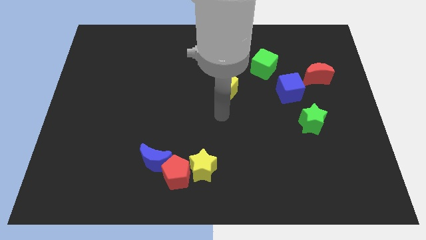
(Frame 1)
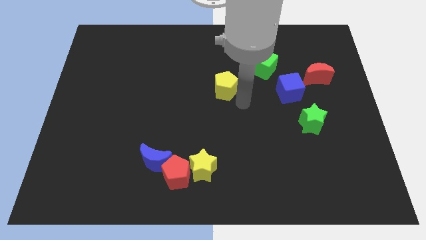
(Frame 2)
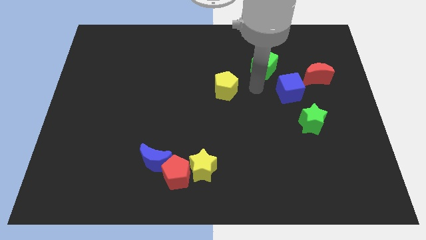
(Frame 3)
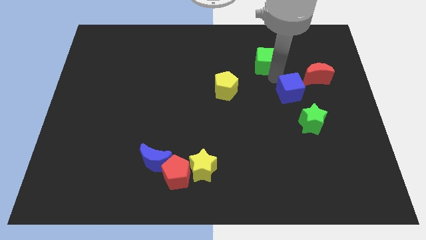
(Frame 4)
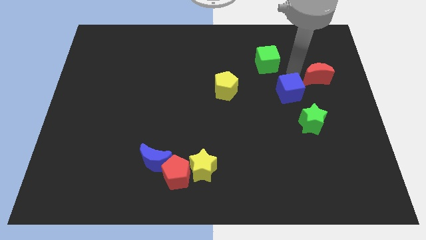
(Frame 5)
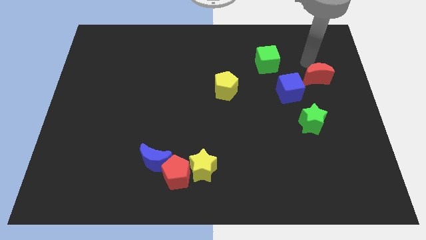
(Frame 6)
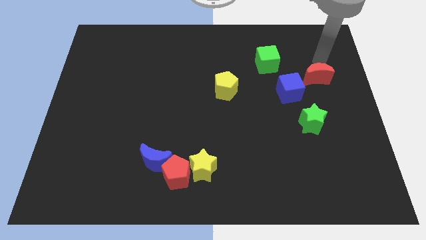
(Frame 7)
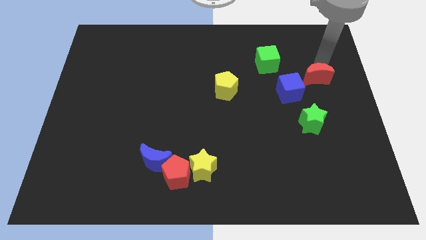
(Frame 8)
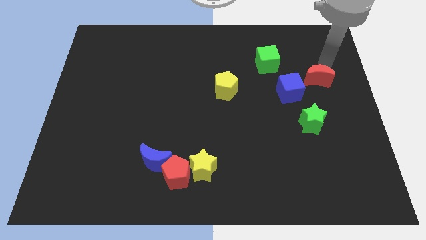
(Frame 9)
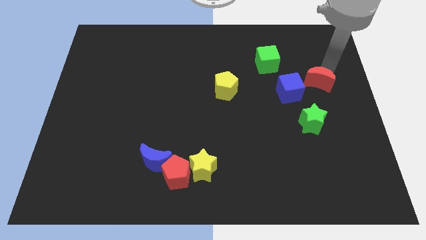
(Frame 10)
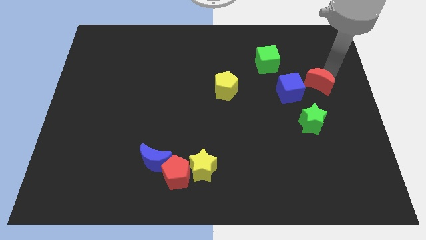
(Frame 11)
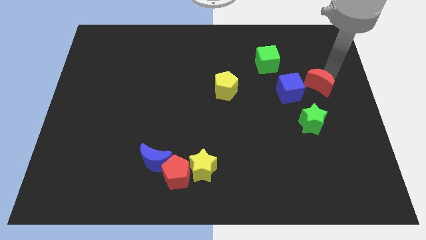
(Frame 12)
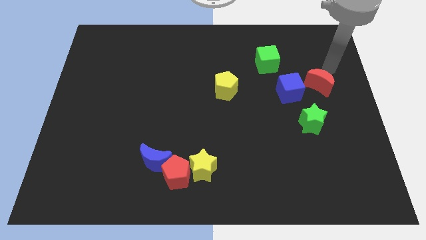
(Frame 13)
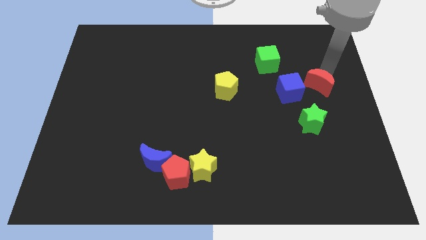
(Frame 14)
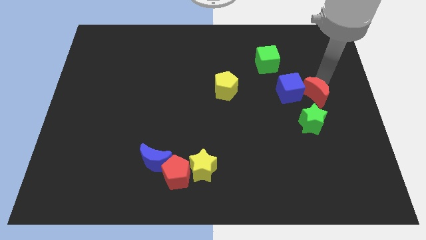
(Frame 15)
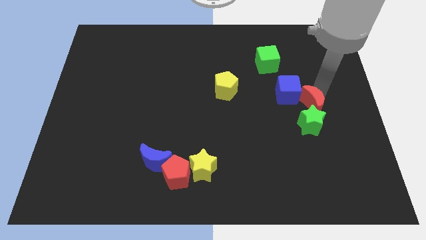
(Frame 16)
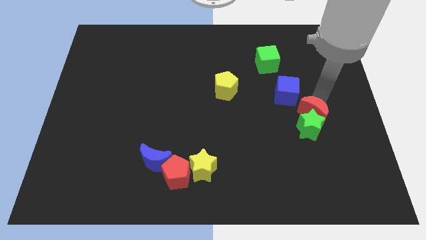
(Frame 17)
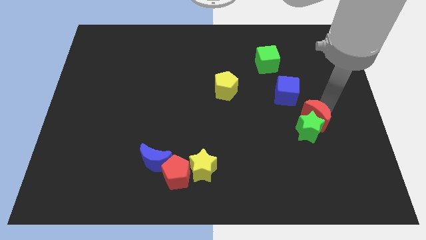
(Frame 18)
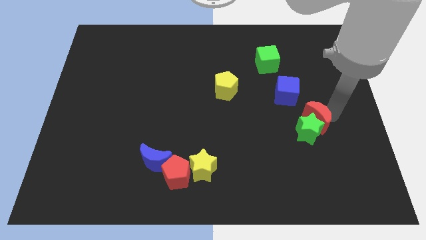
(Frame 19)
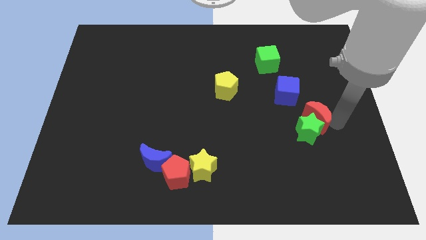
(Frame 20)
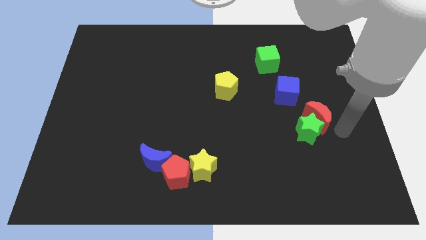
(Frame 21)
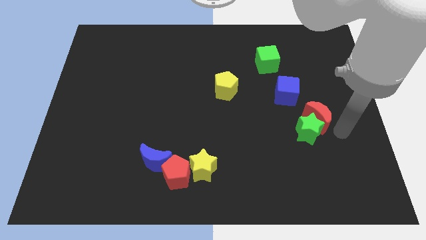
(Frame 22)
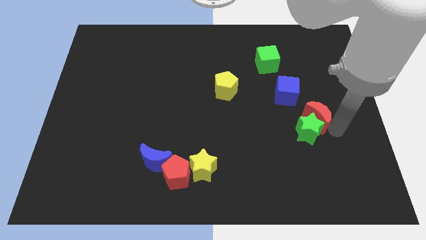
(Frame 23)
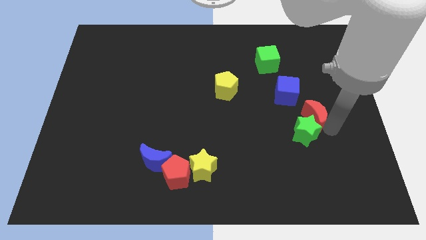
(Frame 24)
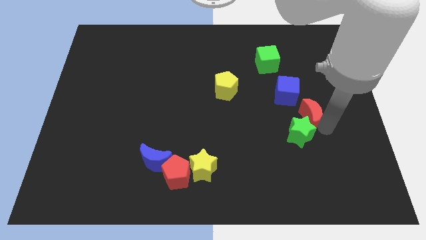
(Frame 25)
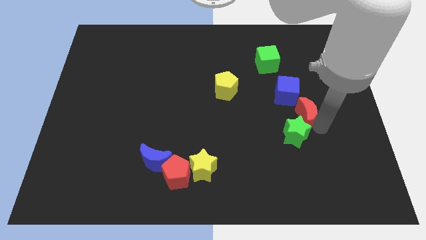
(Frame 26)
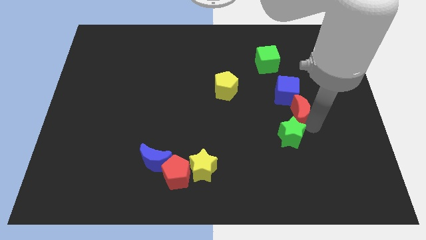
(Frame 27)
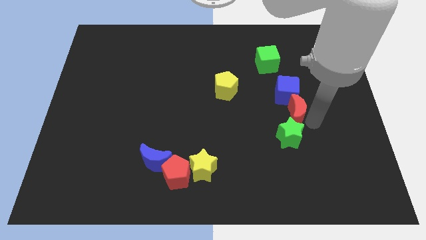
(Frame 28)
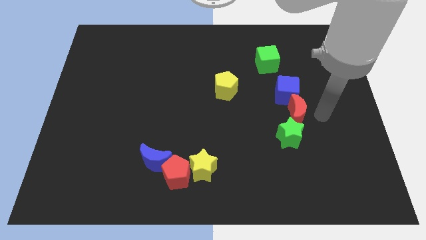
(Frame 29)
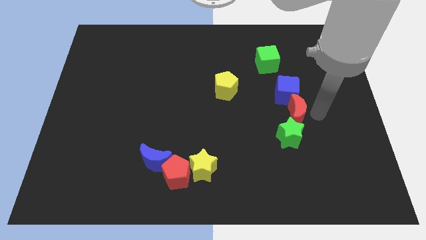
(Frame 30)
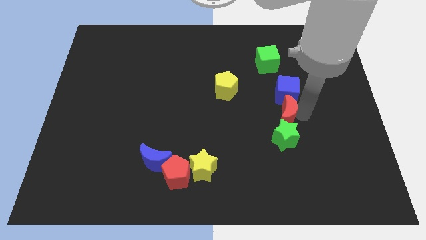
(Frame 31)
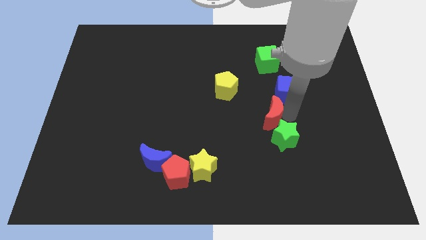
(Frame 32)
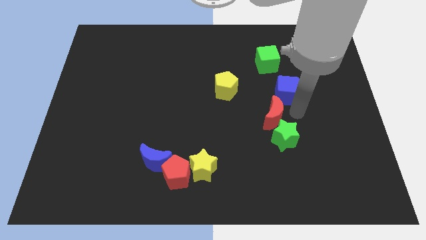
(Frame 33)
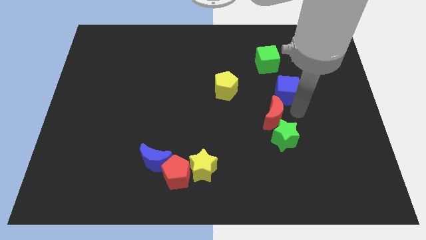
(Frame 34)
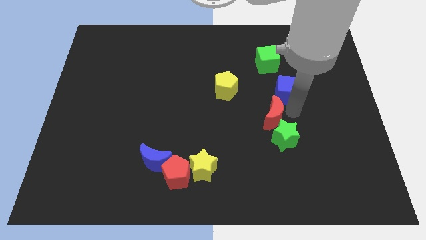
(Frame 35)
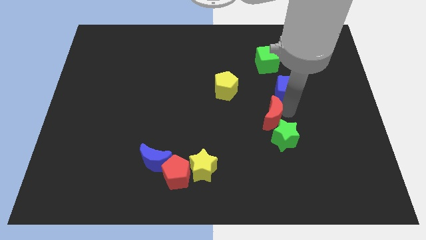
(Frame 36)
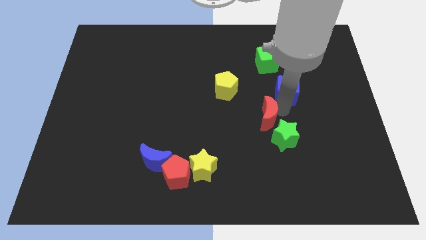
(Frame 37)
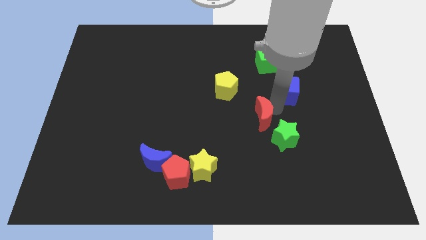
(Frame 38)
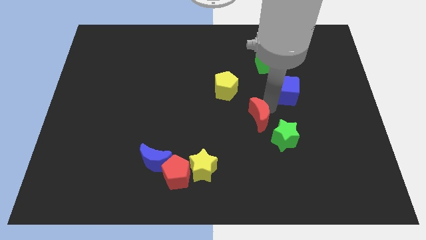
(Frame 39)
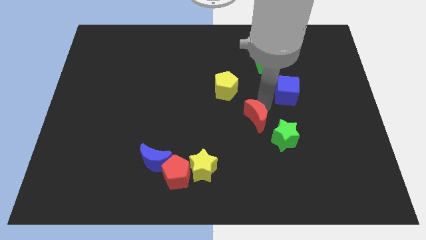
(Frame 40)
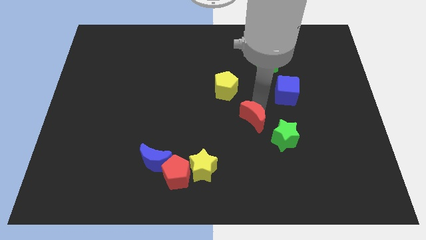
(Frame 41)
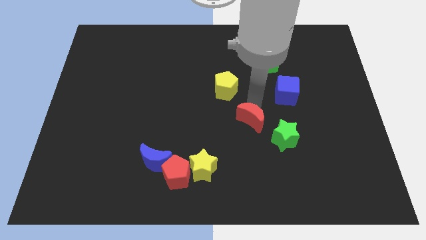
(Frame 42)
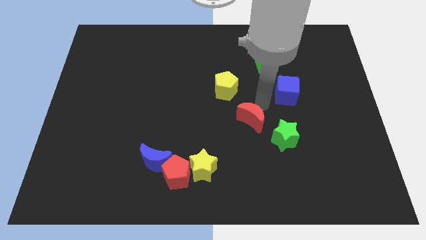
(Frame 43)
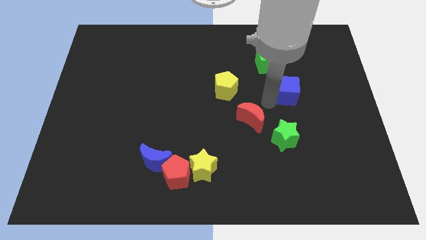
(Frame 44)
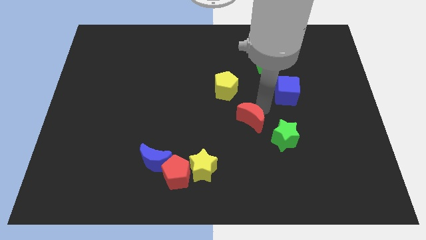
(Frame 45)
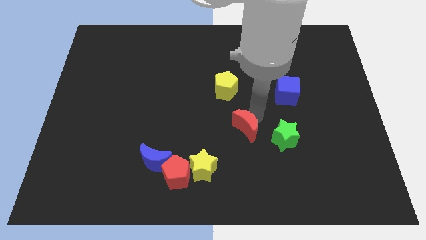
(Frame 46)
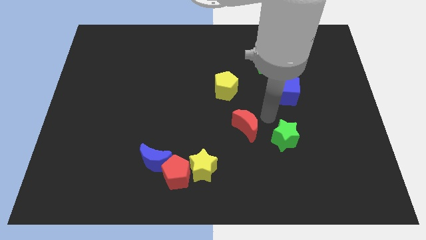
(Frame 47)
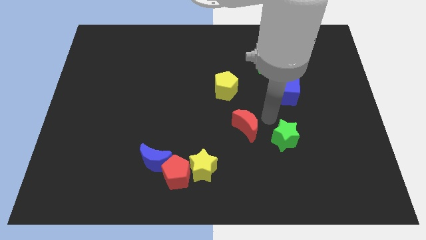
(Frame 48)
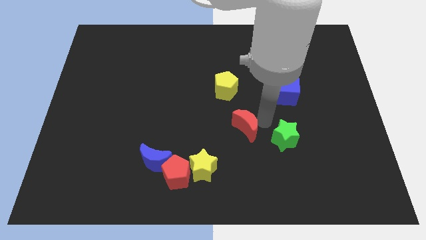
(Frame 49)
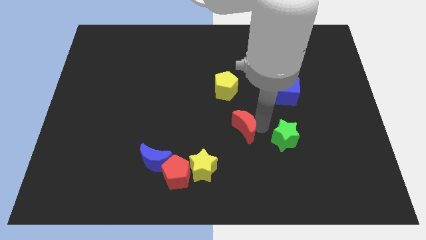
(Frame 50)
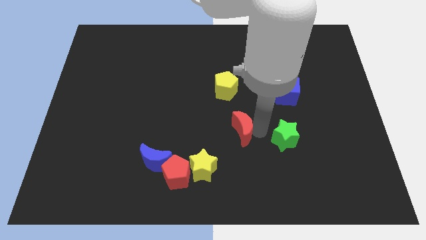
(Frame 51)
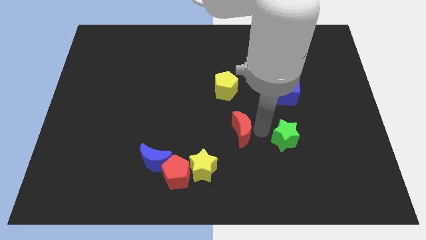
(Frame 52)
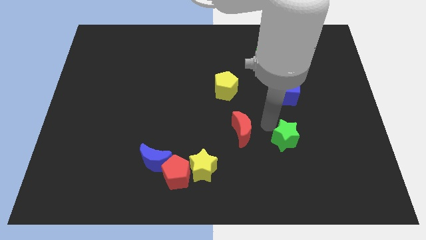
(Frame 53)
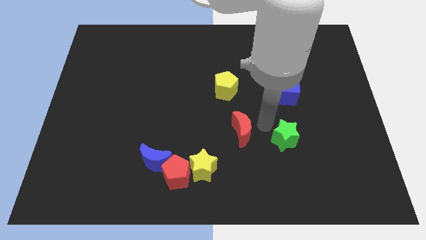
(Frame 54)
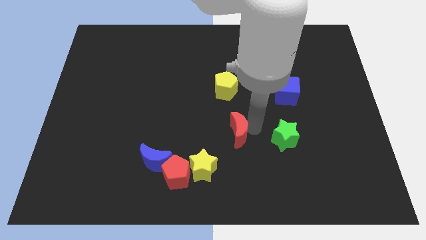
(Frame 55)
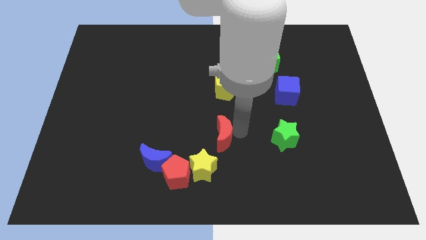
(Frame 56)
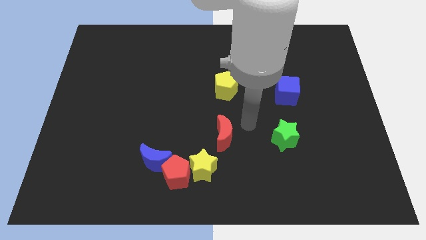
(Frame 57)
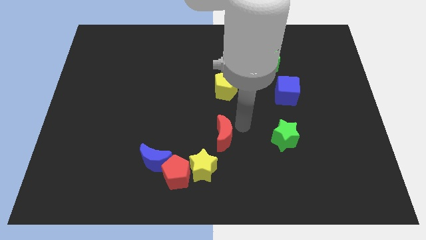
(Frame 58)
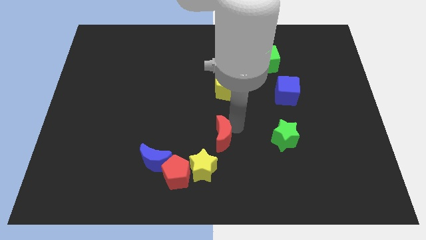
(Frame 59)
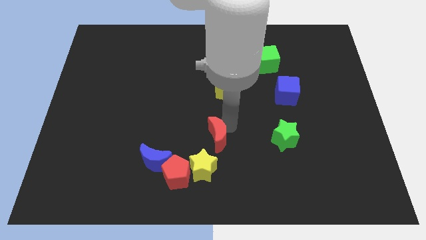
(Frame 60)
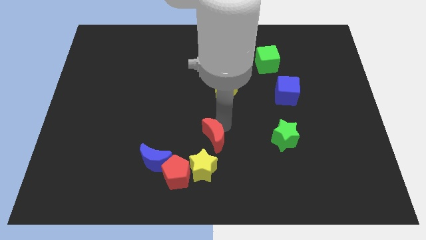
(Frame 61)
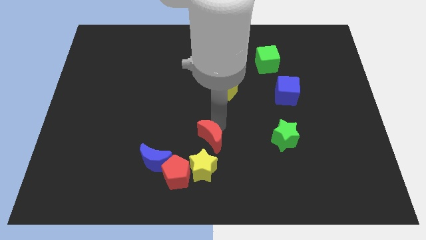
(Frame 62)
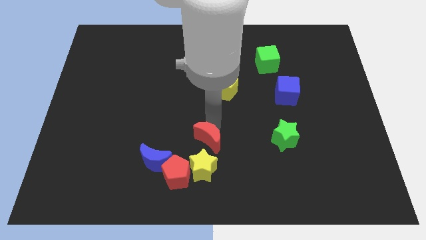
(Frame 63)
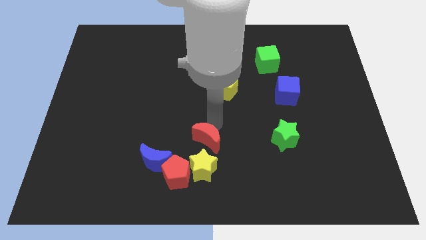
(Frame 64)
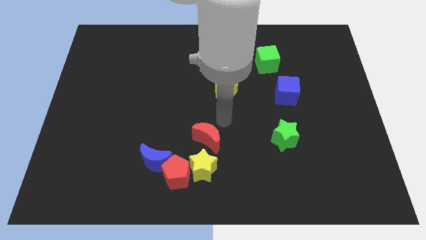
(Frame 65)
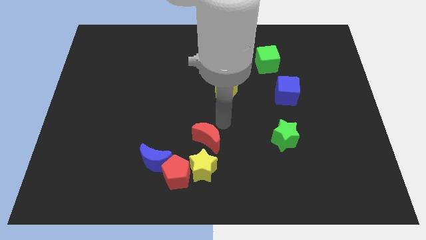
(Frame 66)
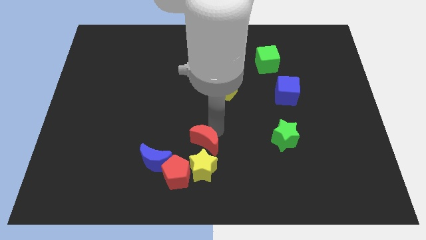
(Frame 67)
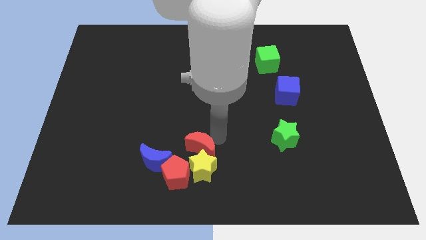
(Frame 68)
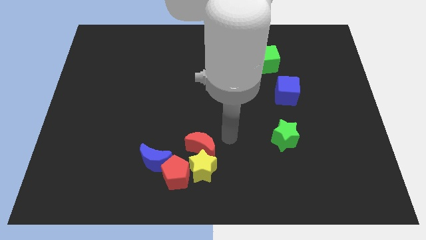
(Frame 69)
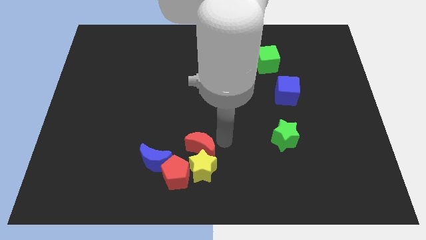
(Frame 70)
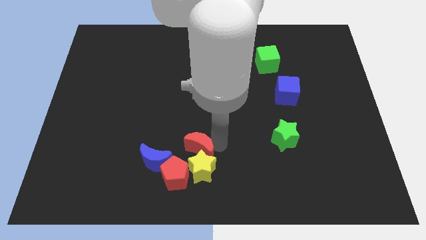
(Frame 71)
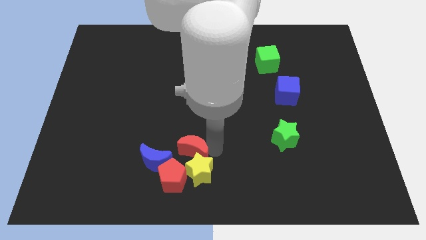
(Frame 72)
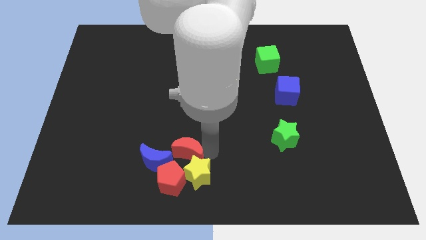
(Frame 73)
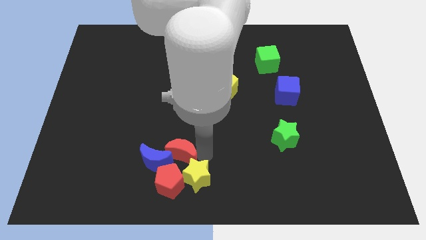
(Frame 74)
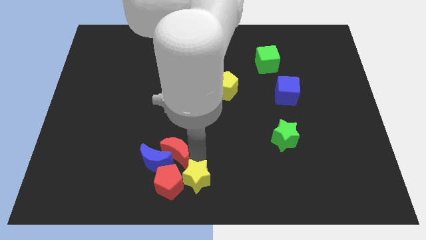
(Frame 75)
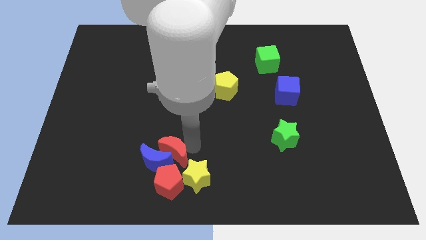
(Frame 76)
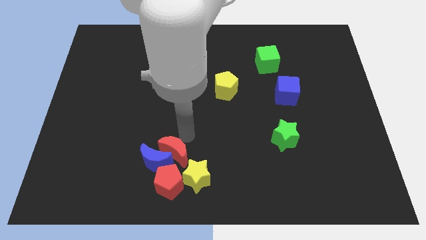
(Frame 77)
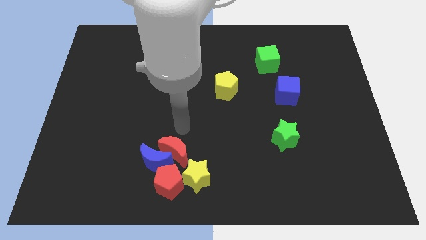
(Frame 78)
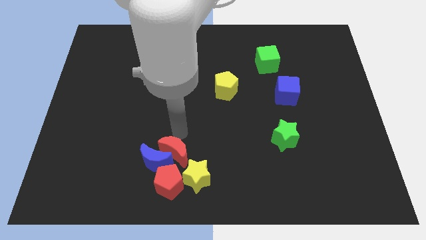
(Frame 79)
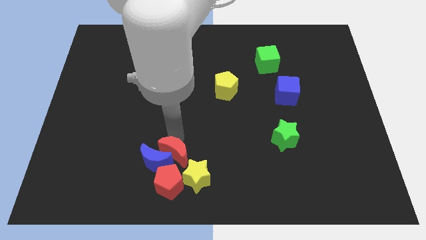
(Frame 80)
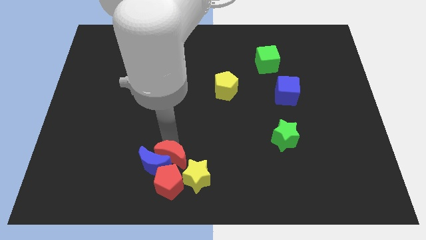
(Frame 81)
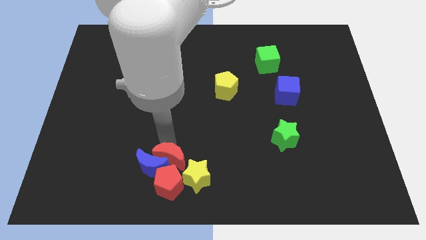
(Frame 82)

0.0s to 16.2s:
move the red moon towards the red pentagon
